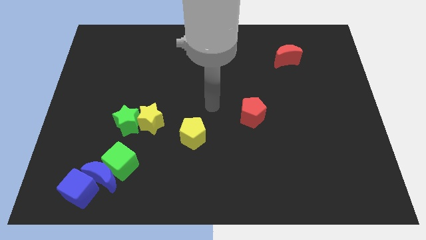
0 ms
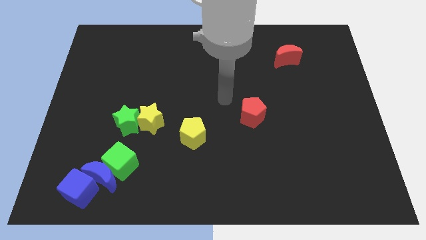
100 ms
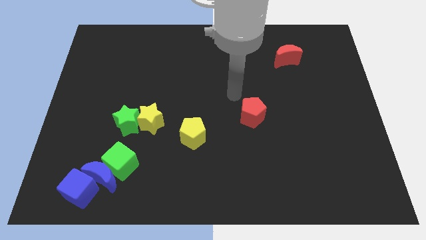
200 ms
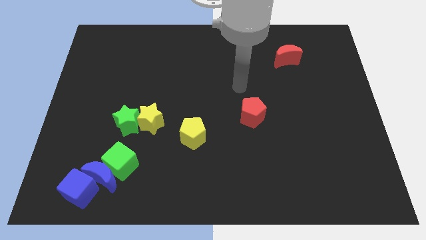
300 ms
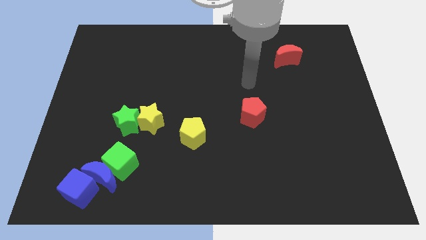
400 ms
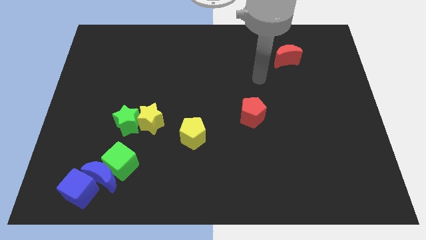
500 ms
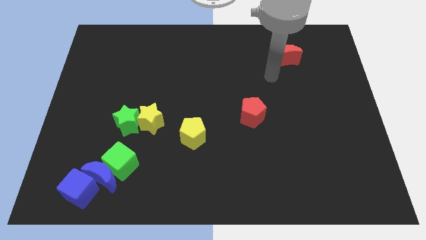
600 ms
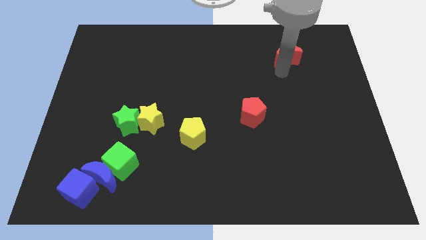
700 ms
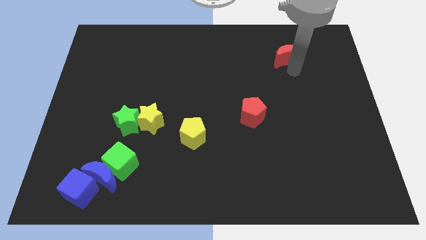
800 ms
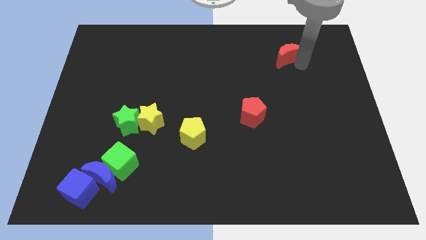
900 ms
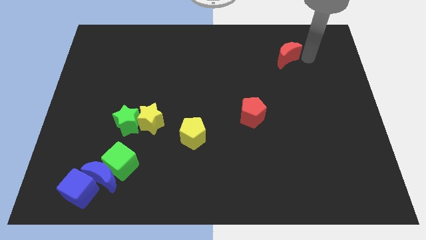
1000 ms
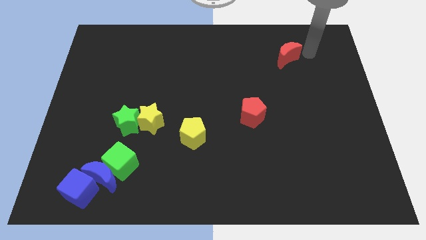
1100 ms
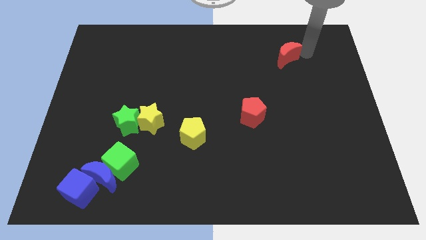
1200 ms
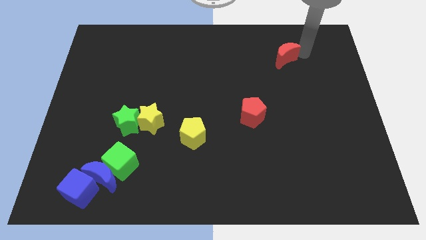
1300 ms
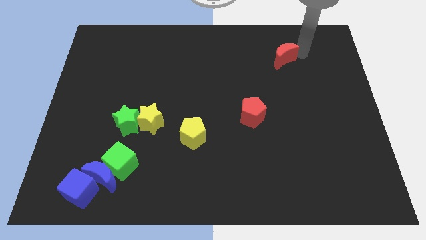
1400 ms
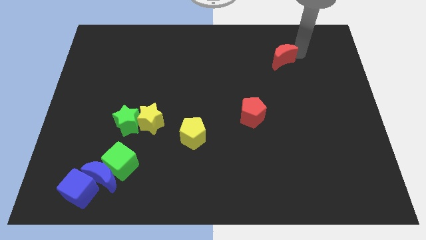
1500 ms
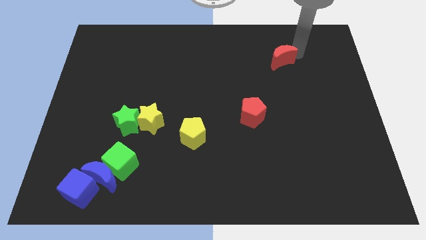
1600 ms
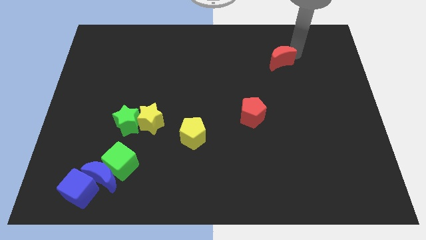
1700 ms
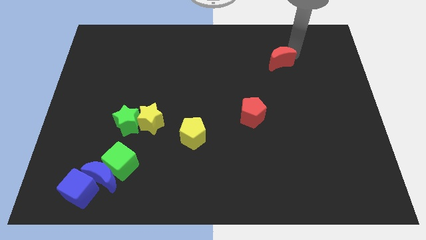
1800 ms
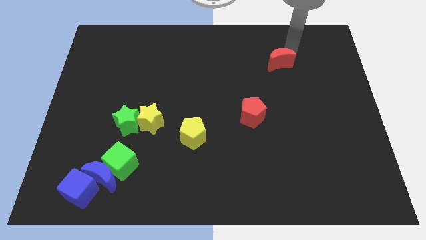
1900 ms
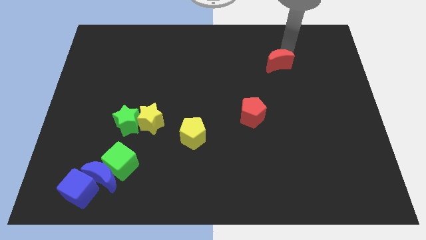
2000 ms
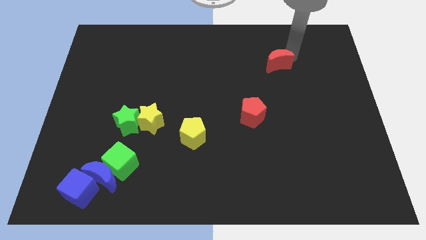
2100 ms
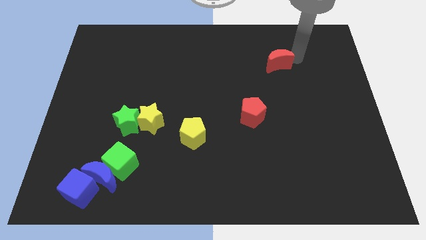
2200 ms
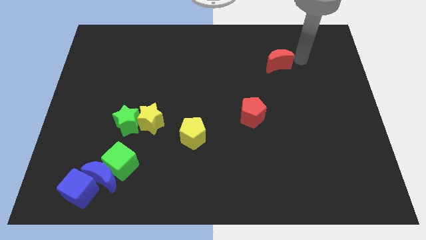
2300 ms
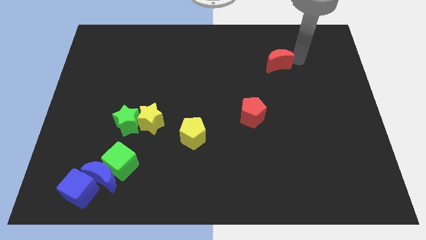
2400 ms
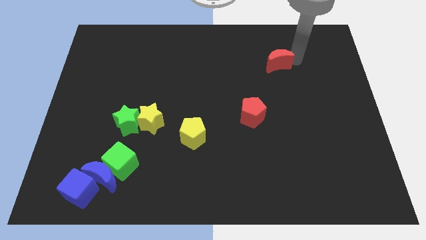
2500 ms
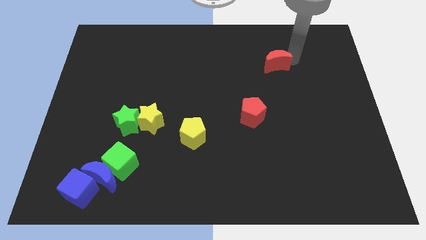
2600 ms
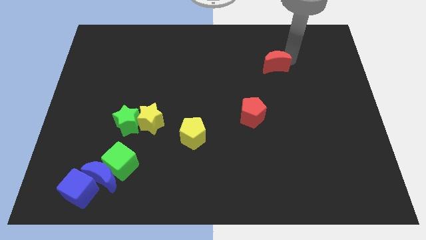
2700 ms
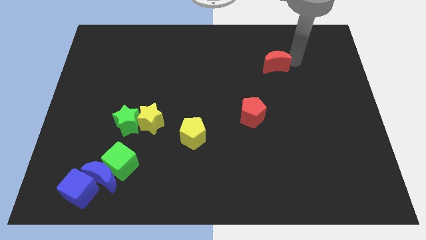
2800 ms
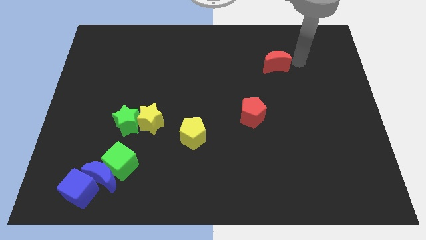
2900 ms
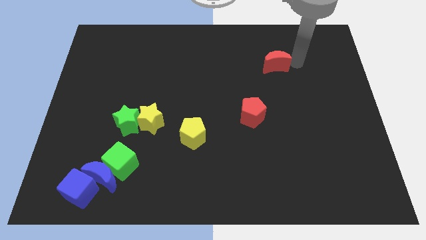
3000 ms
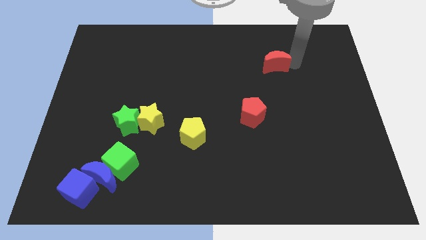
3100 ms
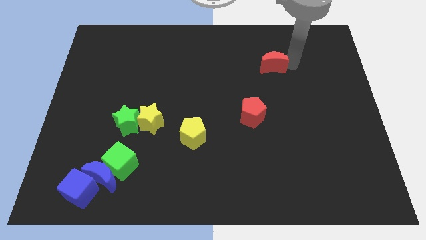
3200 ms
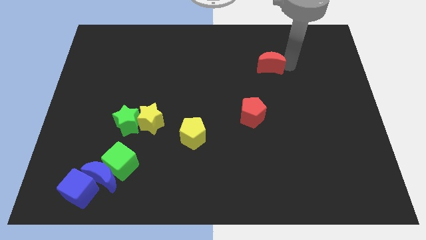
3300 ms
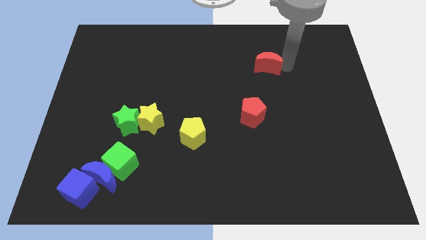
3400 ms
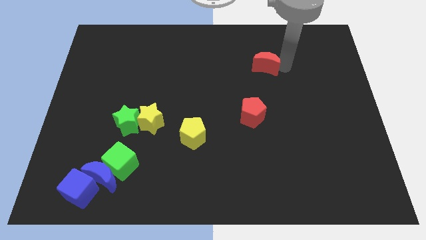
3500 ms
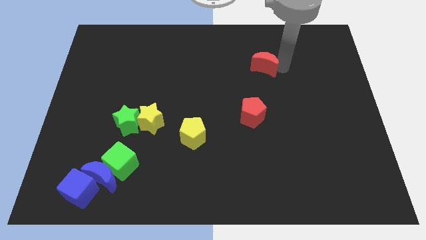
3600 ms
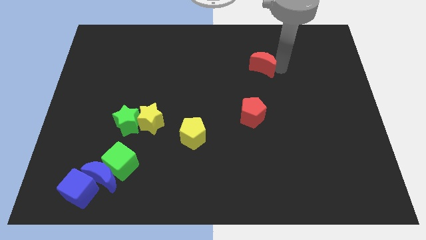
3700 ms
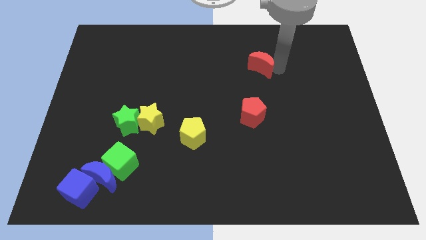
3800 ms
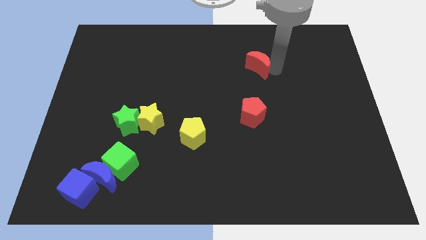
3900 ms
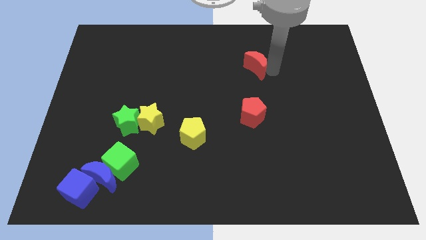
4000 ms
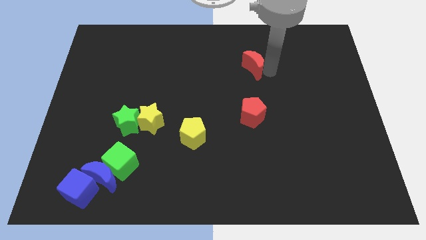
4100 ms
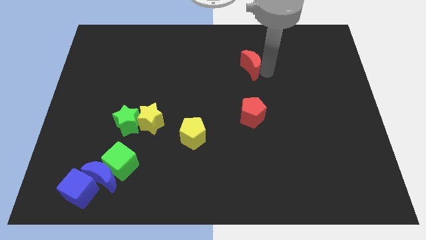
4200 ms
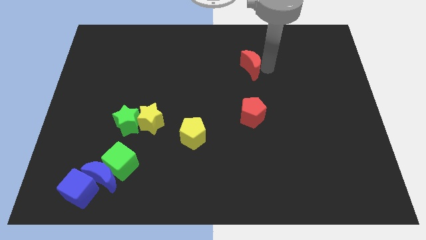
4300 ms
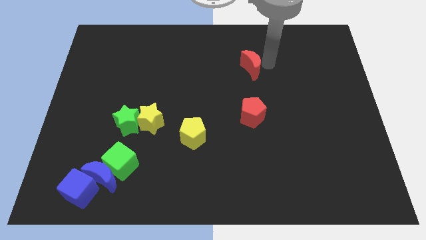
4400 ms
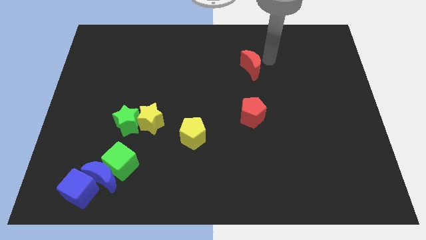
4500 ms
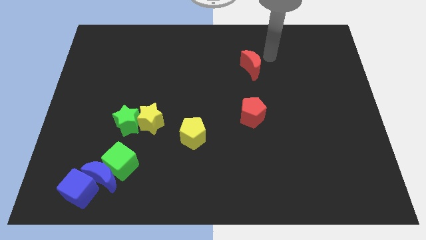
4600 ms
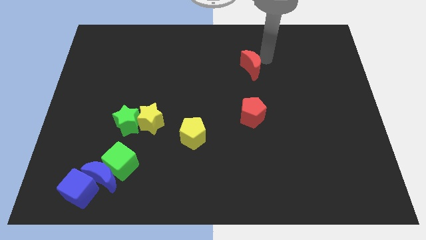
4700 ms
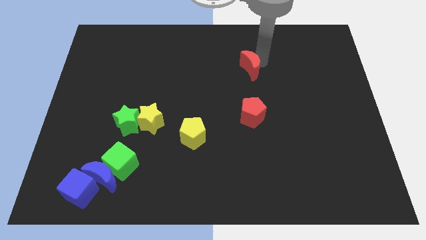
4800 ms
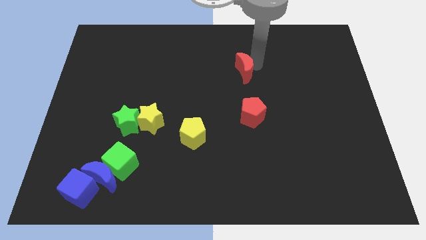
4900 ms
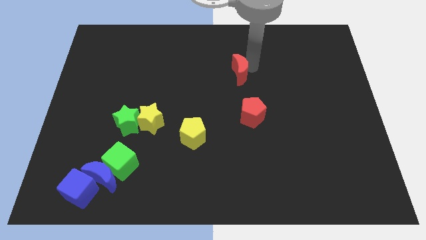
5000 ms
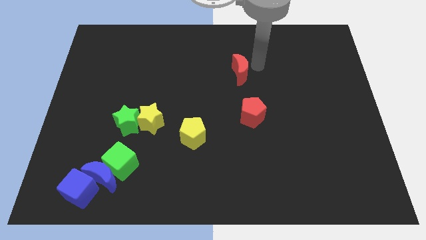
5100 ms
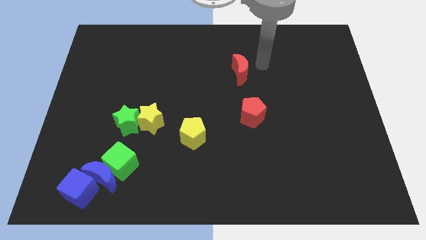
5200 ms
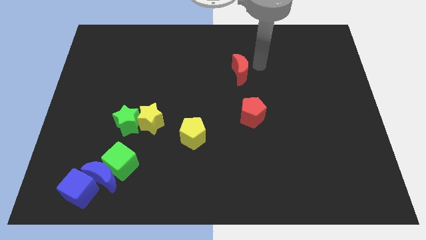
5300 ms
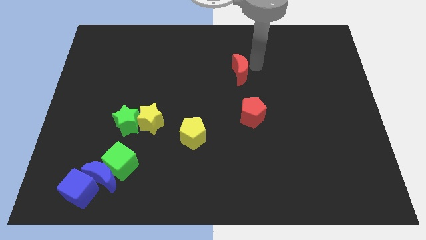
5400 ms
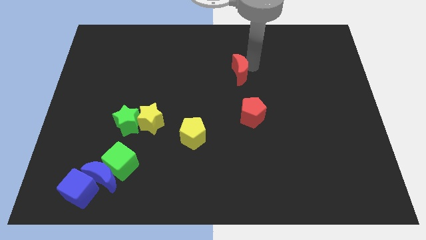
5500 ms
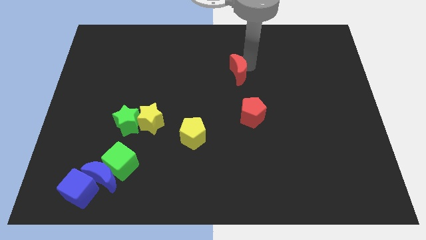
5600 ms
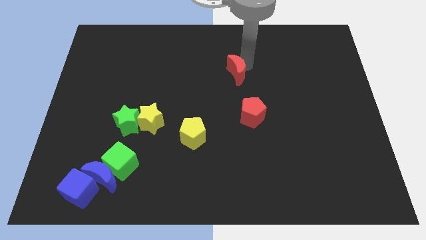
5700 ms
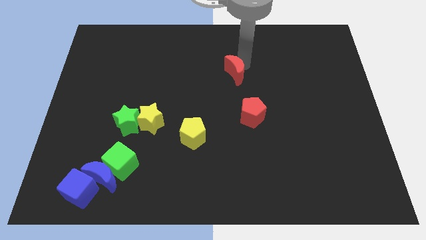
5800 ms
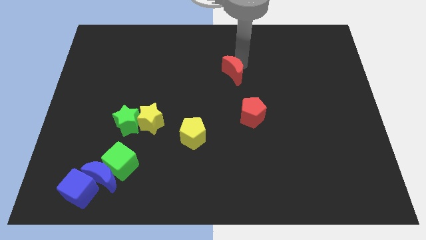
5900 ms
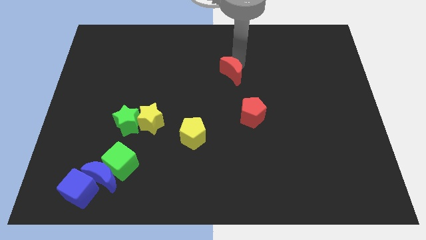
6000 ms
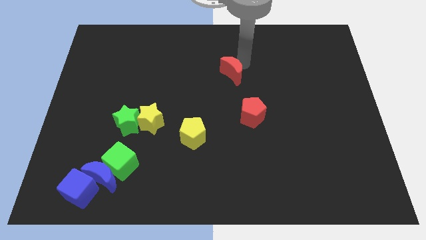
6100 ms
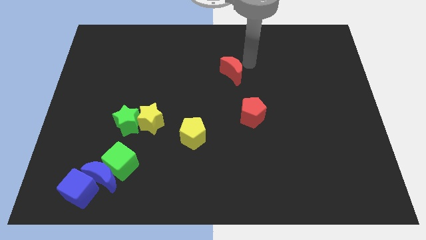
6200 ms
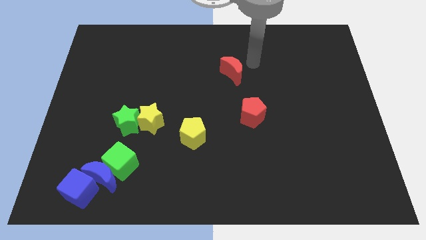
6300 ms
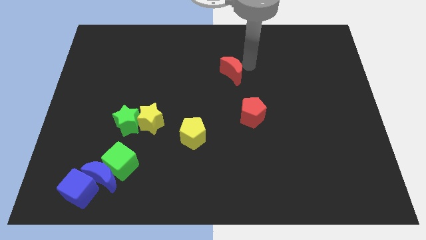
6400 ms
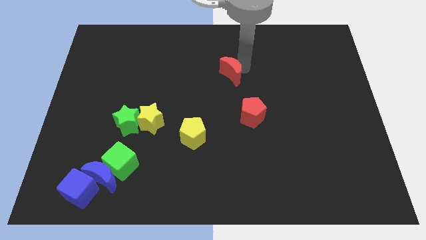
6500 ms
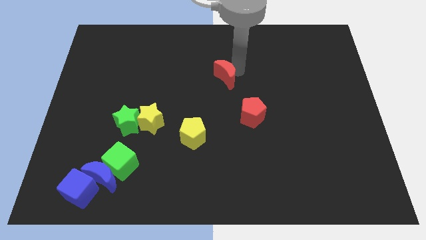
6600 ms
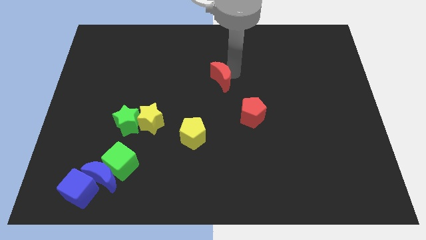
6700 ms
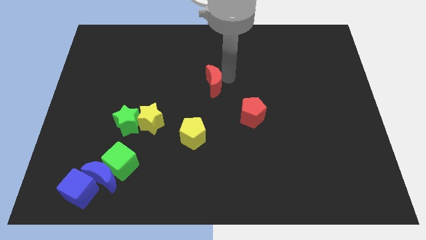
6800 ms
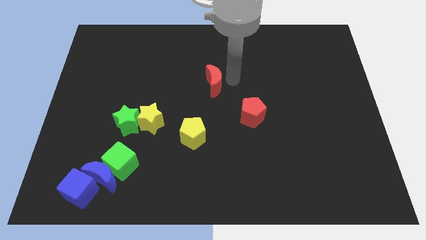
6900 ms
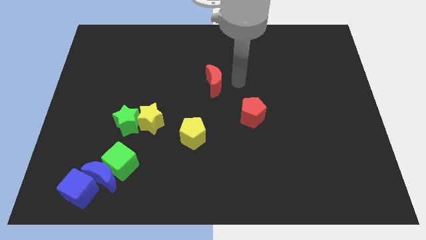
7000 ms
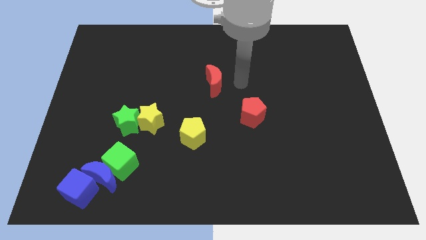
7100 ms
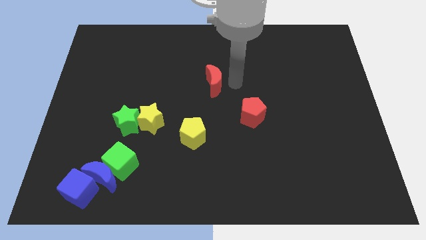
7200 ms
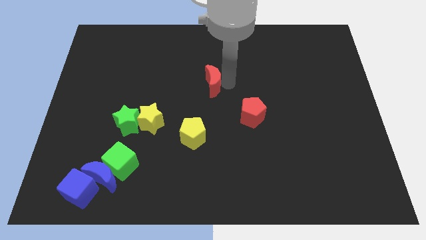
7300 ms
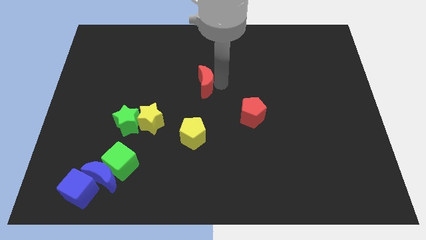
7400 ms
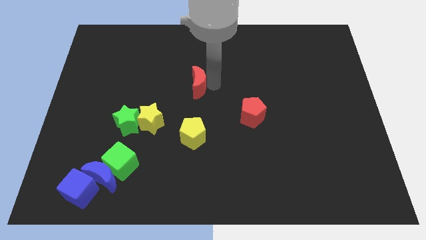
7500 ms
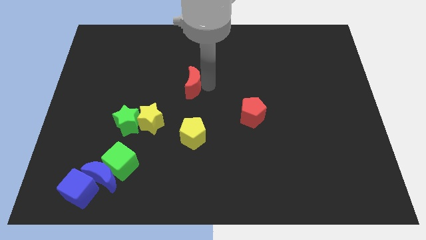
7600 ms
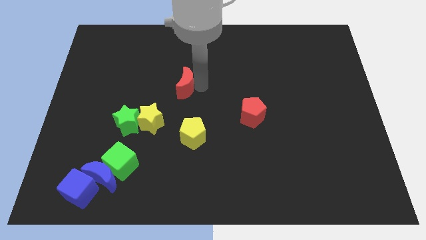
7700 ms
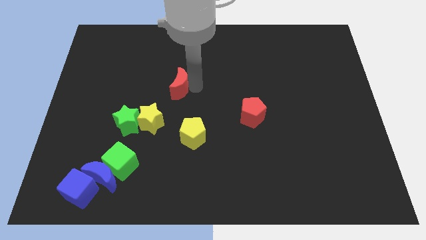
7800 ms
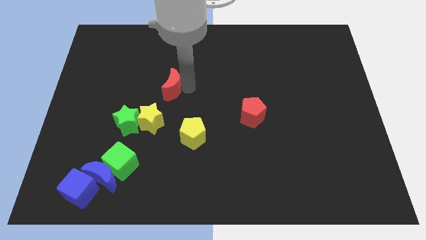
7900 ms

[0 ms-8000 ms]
slide the red moon above the yellow star
